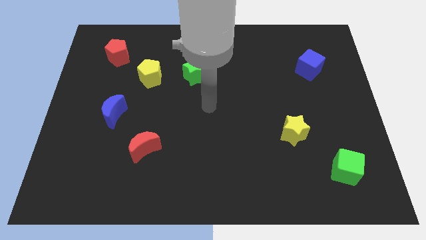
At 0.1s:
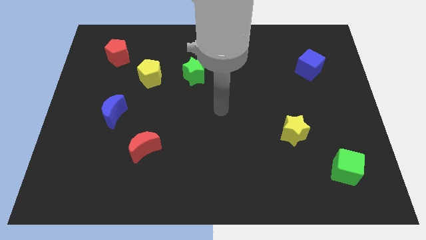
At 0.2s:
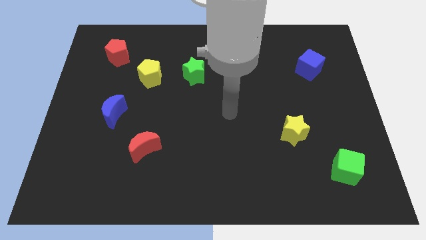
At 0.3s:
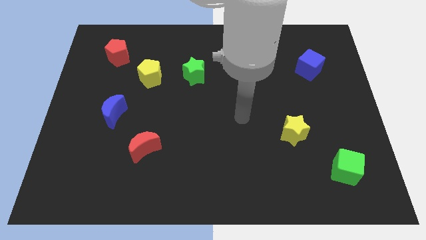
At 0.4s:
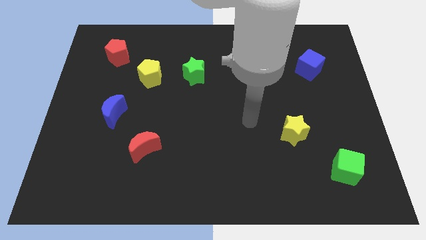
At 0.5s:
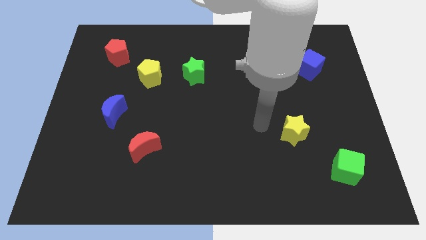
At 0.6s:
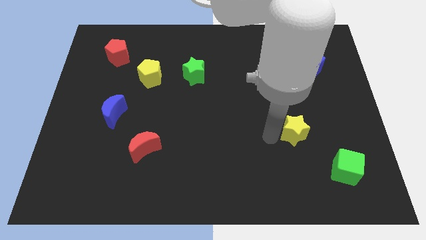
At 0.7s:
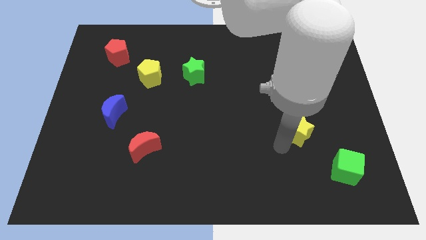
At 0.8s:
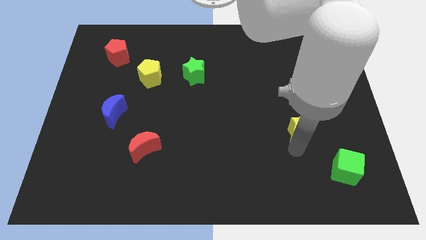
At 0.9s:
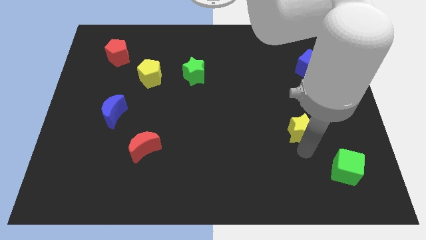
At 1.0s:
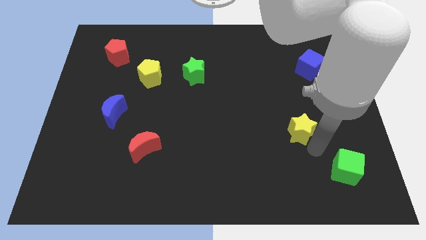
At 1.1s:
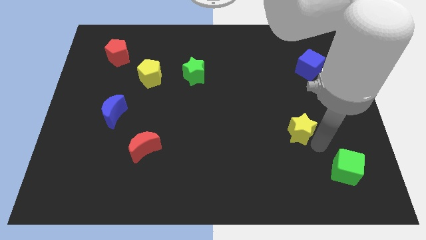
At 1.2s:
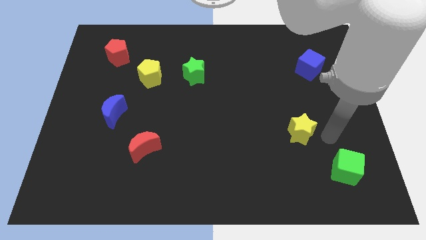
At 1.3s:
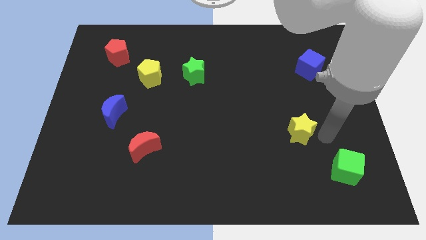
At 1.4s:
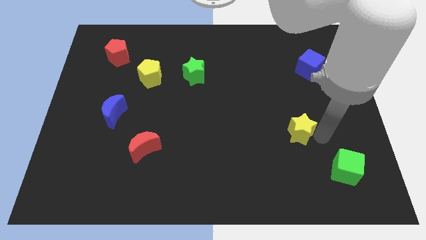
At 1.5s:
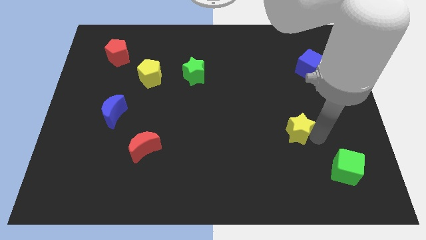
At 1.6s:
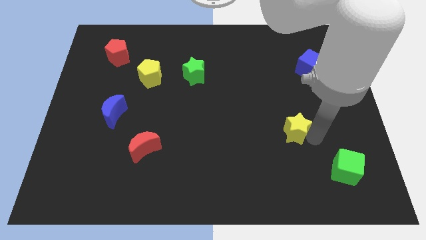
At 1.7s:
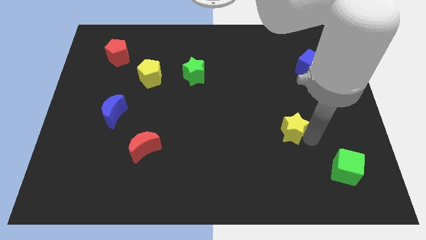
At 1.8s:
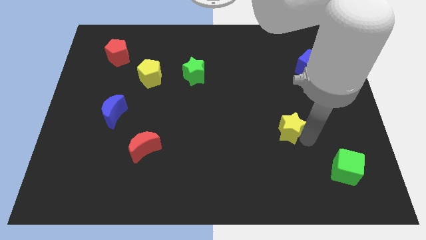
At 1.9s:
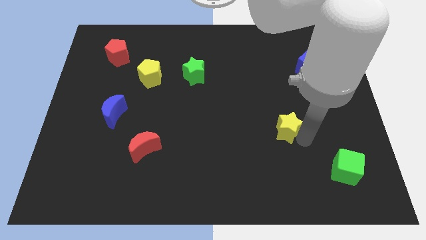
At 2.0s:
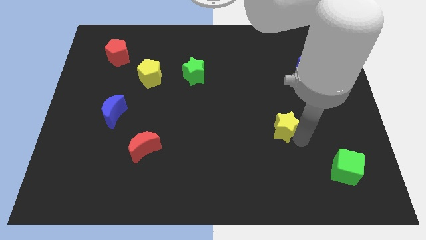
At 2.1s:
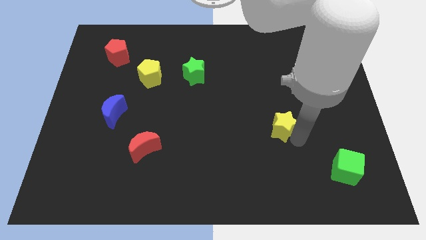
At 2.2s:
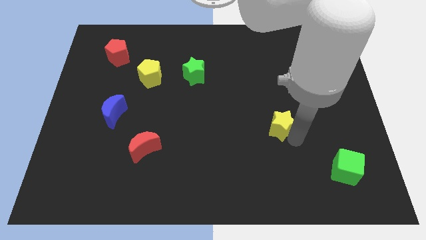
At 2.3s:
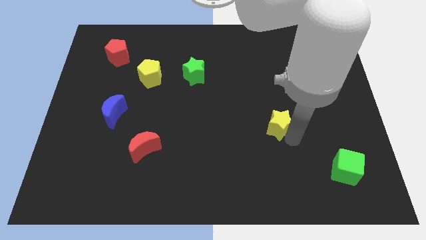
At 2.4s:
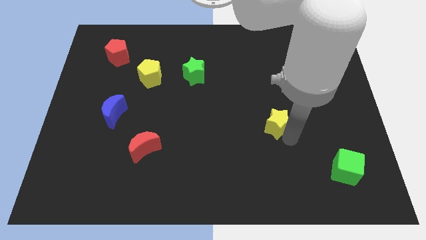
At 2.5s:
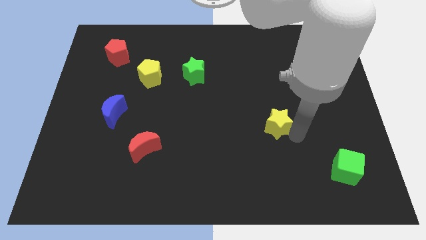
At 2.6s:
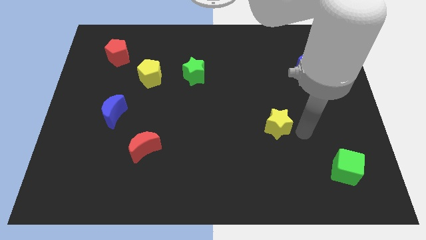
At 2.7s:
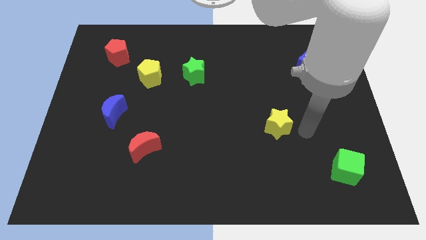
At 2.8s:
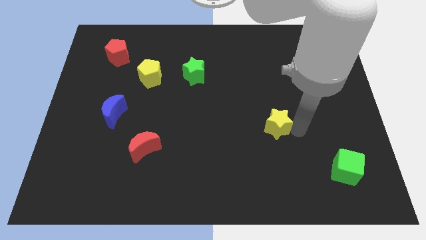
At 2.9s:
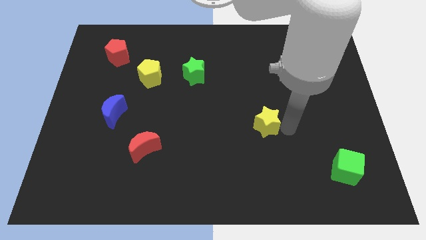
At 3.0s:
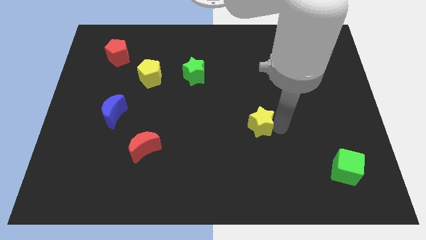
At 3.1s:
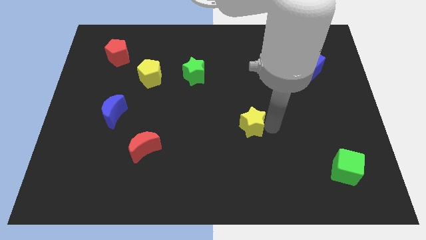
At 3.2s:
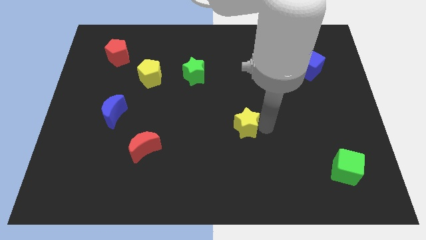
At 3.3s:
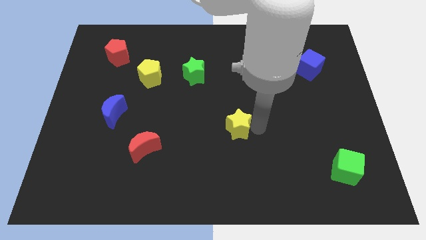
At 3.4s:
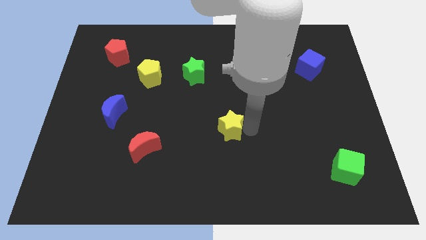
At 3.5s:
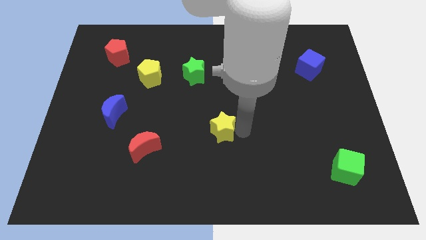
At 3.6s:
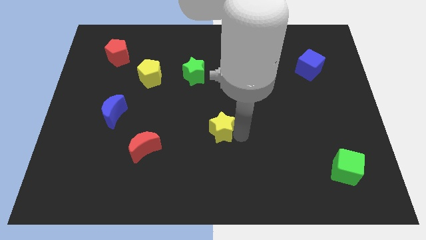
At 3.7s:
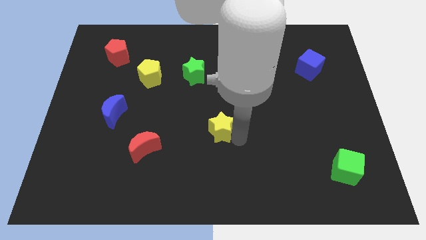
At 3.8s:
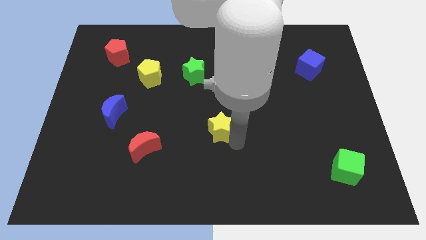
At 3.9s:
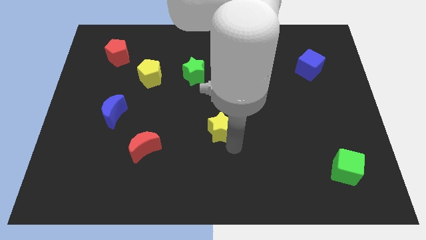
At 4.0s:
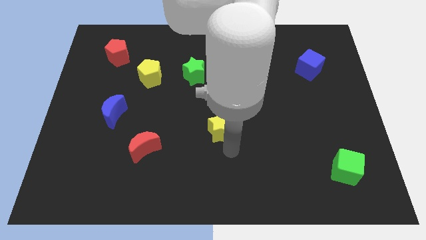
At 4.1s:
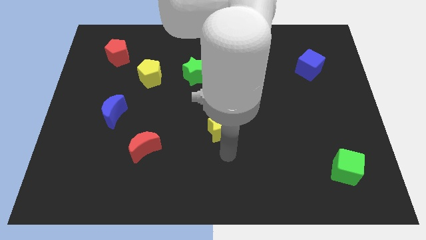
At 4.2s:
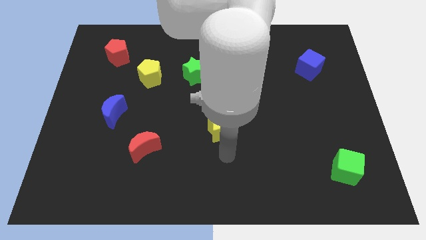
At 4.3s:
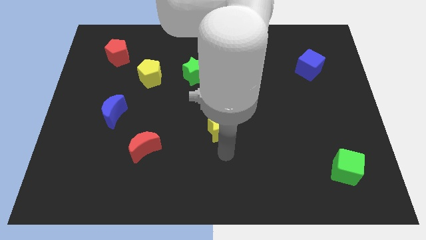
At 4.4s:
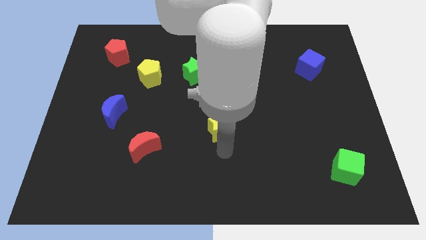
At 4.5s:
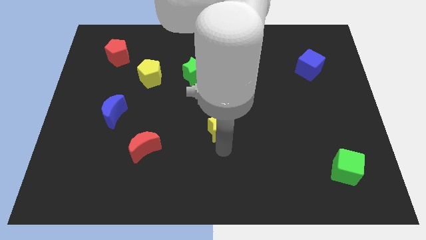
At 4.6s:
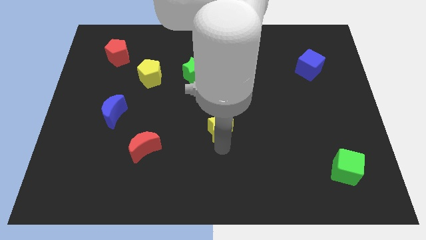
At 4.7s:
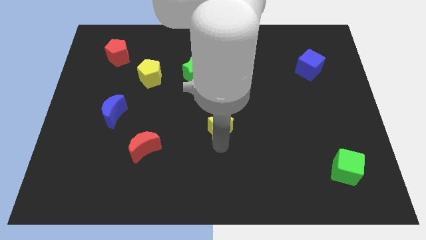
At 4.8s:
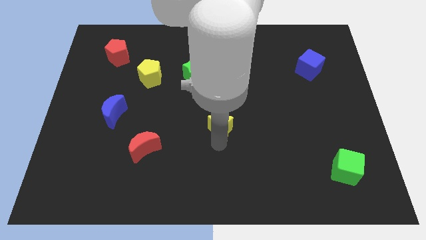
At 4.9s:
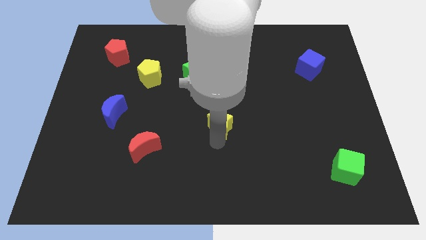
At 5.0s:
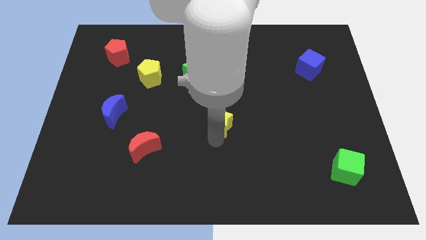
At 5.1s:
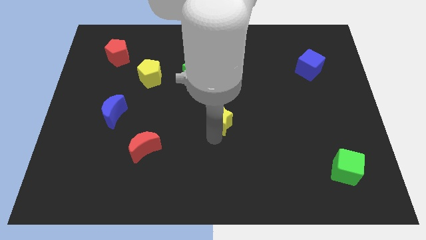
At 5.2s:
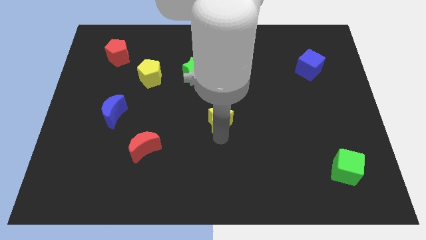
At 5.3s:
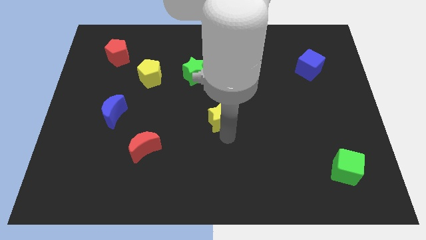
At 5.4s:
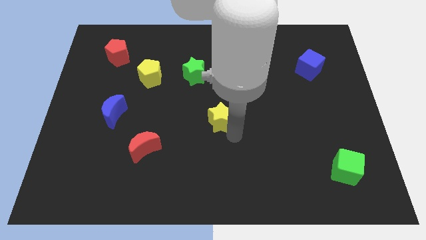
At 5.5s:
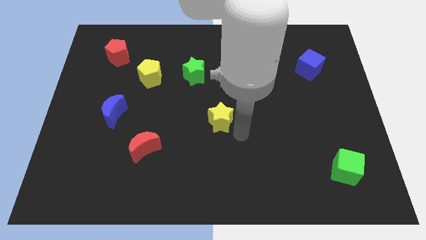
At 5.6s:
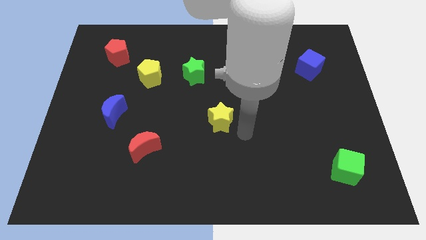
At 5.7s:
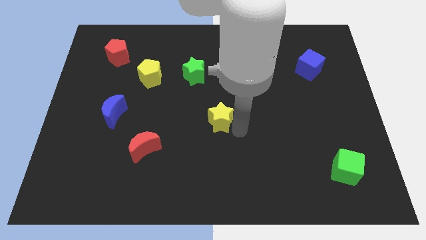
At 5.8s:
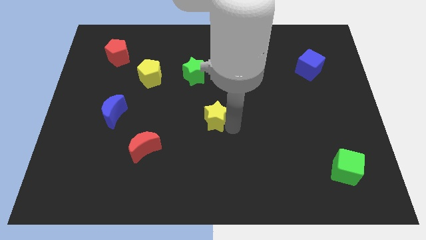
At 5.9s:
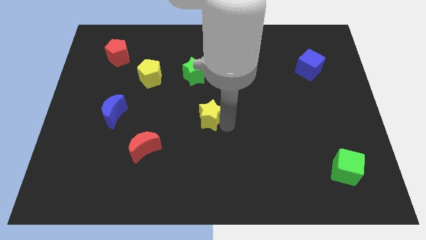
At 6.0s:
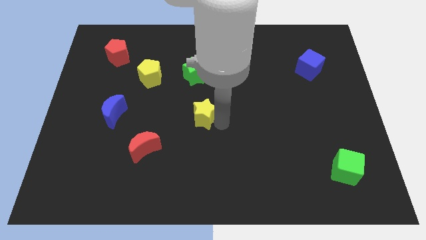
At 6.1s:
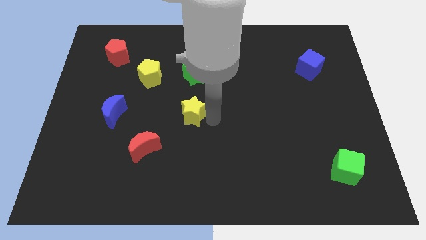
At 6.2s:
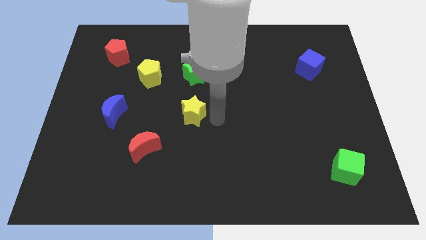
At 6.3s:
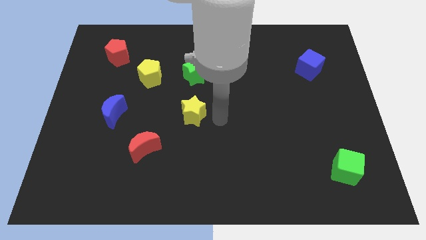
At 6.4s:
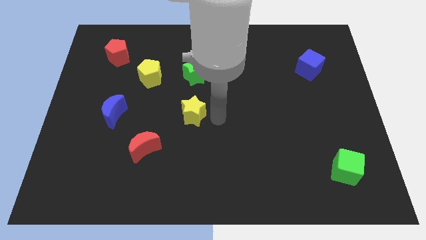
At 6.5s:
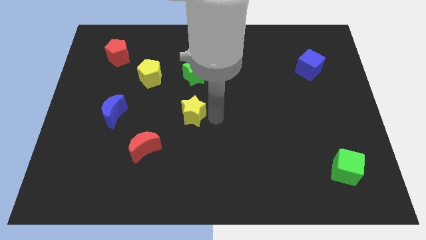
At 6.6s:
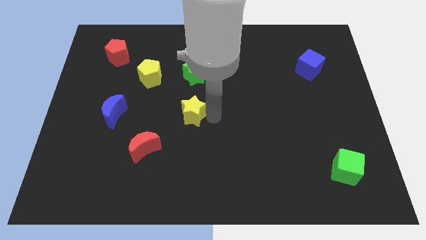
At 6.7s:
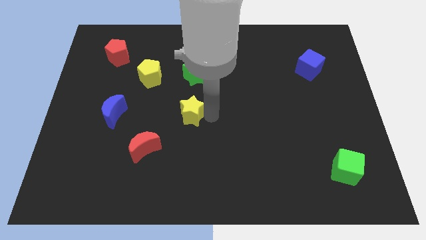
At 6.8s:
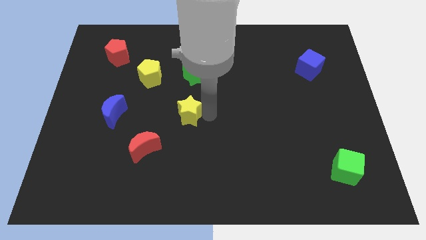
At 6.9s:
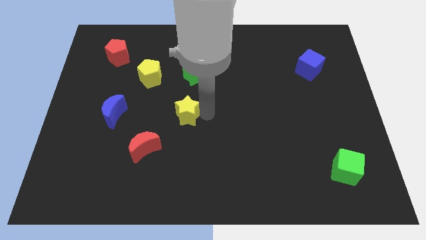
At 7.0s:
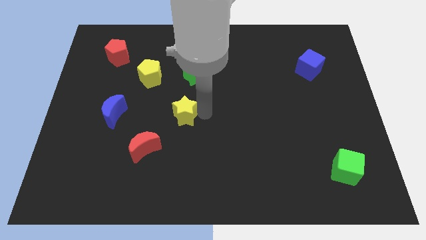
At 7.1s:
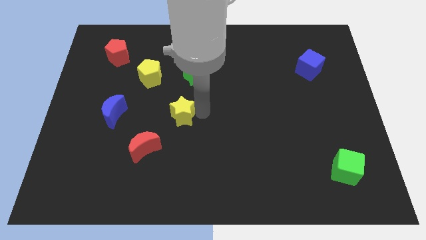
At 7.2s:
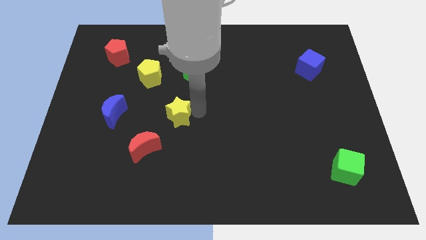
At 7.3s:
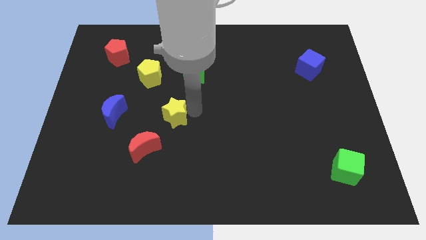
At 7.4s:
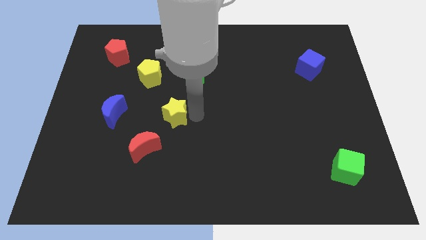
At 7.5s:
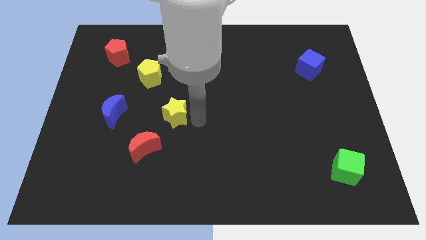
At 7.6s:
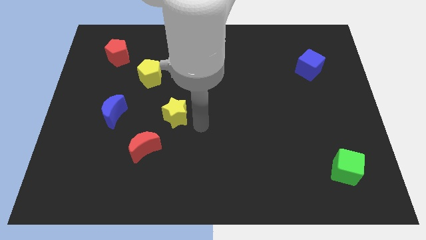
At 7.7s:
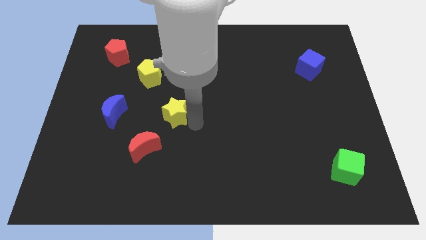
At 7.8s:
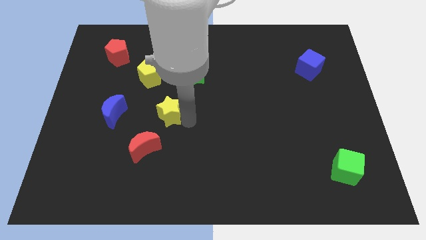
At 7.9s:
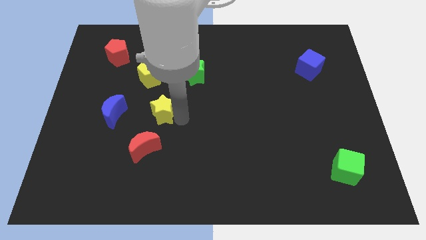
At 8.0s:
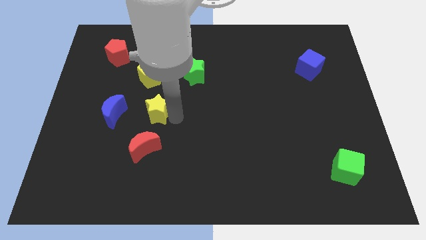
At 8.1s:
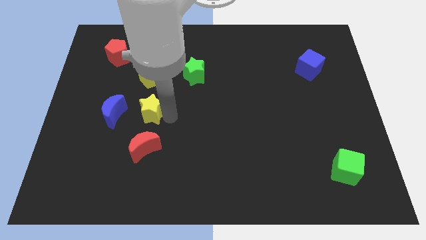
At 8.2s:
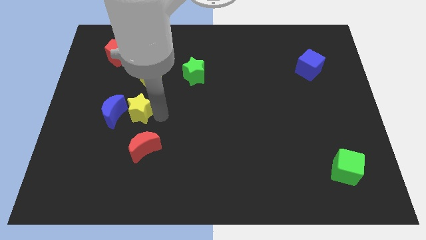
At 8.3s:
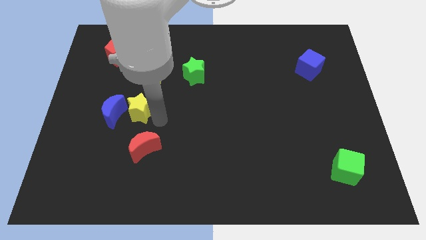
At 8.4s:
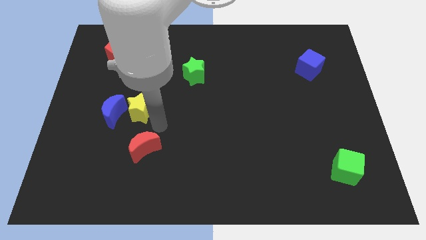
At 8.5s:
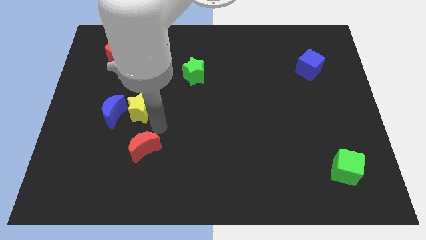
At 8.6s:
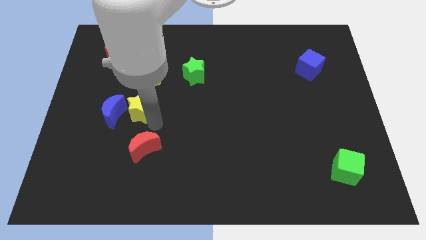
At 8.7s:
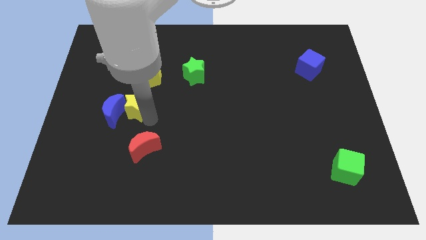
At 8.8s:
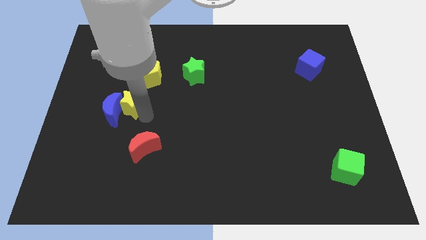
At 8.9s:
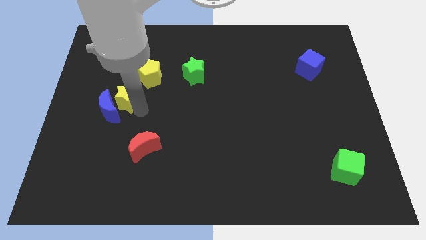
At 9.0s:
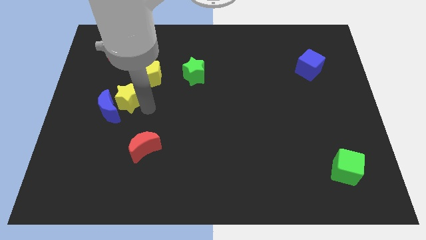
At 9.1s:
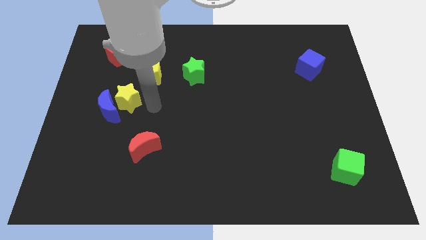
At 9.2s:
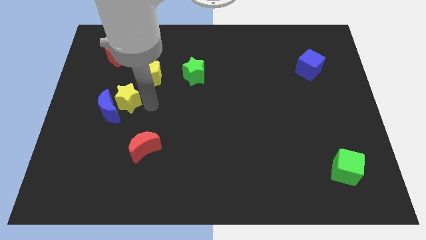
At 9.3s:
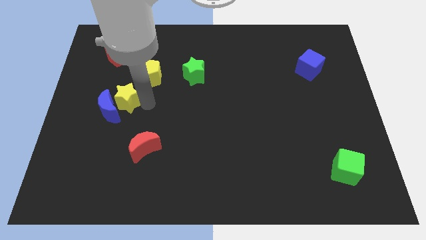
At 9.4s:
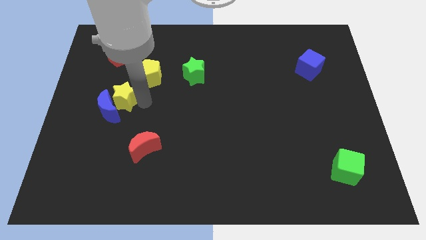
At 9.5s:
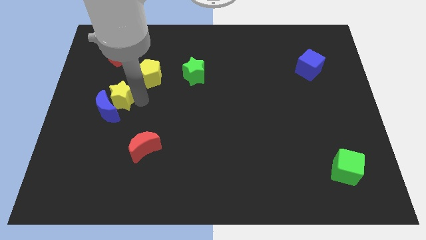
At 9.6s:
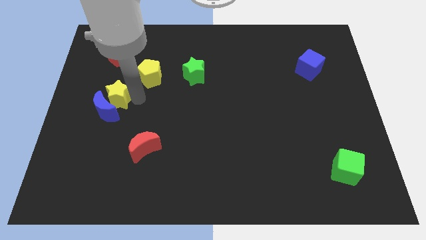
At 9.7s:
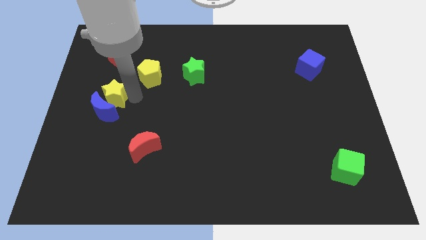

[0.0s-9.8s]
push the yellow star to the top left side of the blue moon
